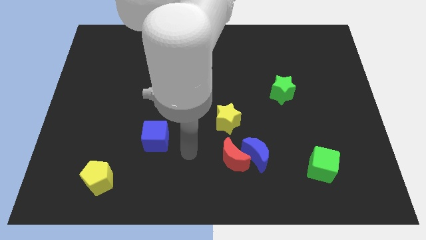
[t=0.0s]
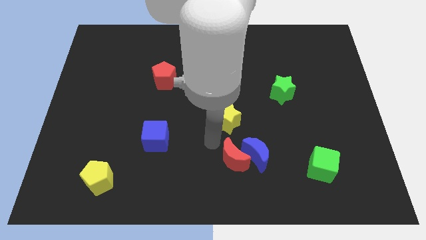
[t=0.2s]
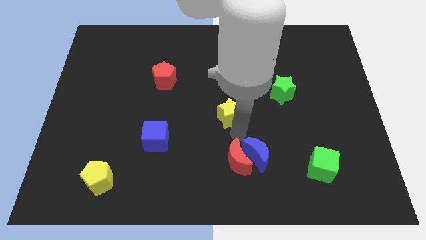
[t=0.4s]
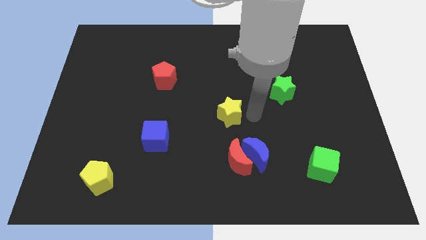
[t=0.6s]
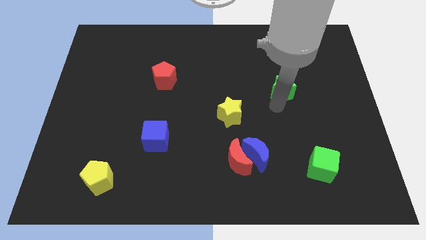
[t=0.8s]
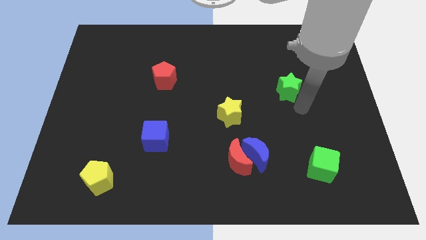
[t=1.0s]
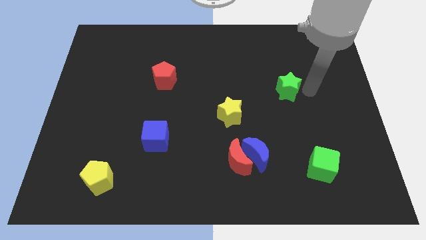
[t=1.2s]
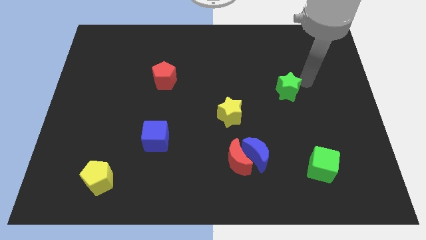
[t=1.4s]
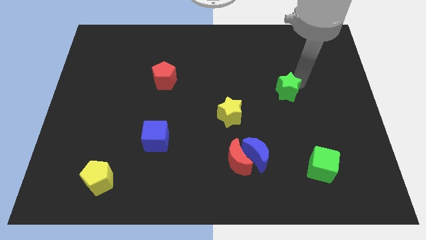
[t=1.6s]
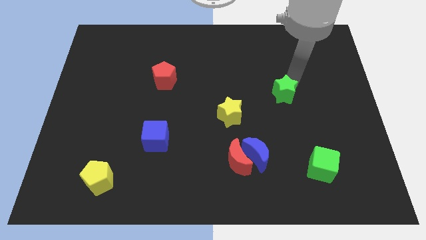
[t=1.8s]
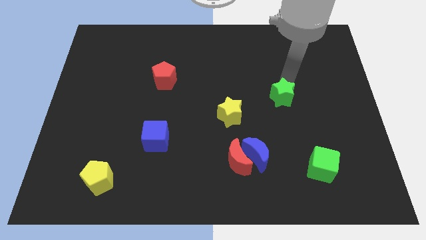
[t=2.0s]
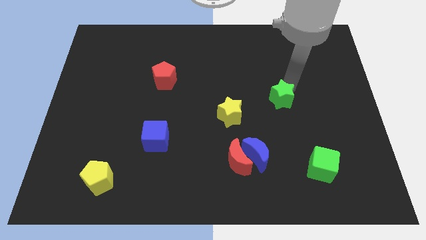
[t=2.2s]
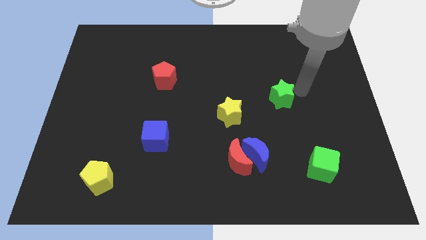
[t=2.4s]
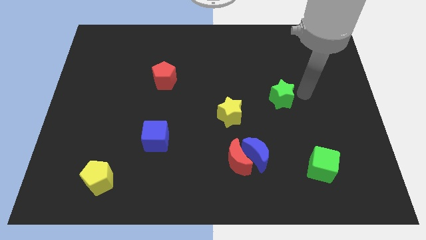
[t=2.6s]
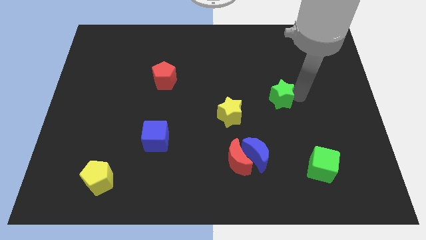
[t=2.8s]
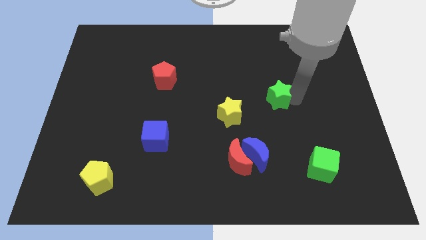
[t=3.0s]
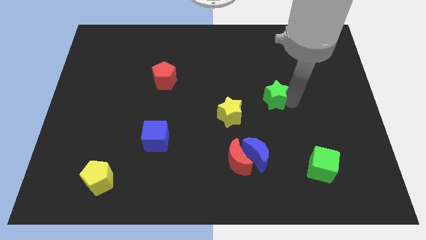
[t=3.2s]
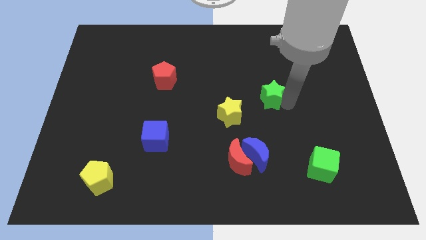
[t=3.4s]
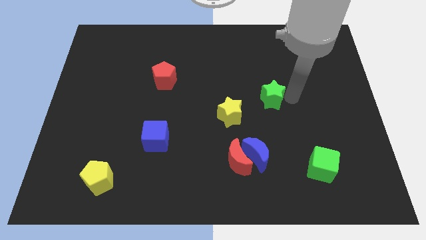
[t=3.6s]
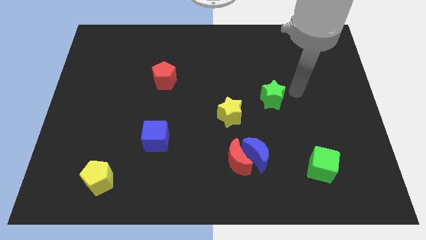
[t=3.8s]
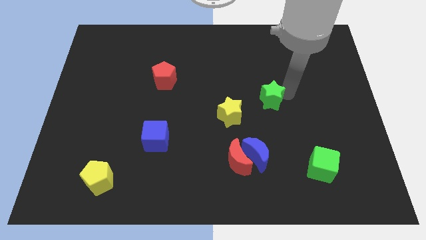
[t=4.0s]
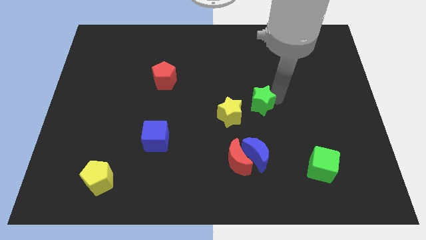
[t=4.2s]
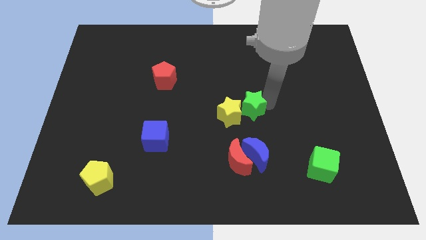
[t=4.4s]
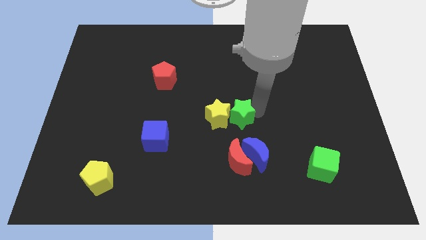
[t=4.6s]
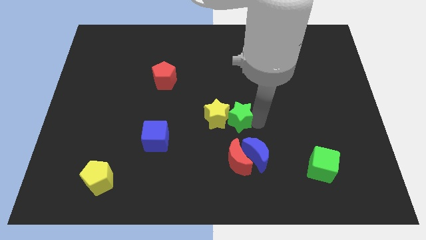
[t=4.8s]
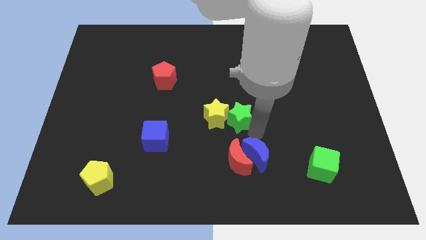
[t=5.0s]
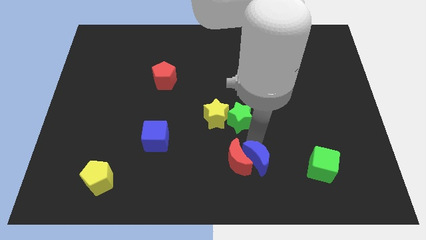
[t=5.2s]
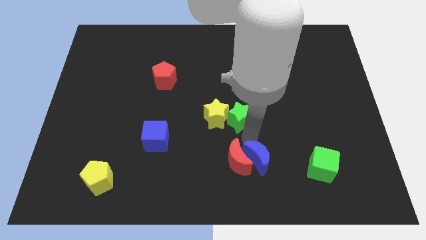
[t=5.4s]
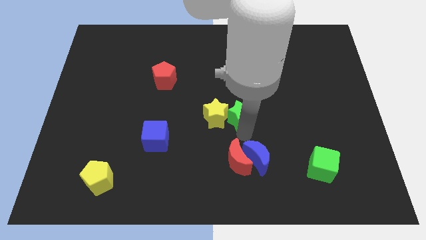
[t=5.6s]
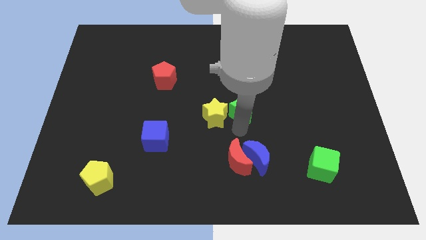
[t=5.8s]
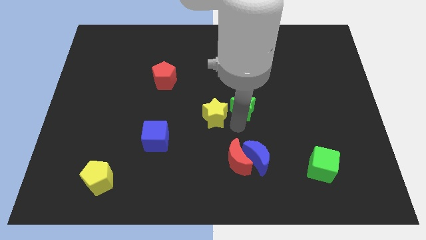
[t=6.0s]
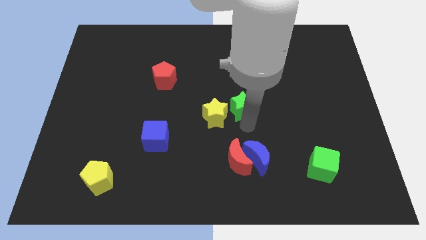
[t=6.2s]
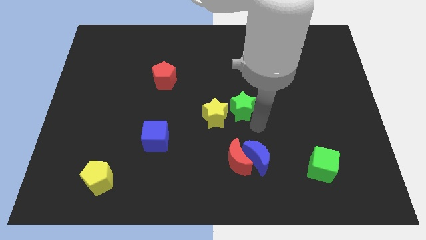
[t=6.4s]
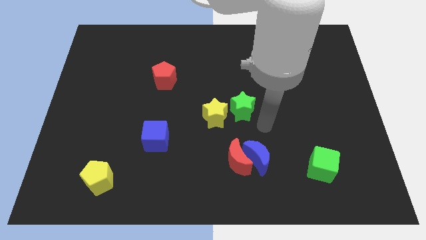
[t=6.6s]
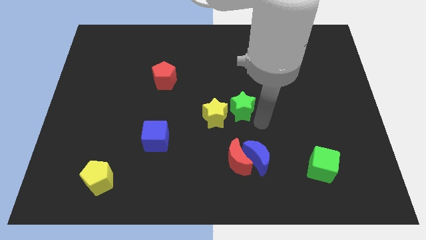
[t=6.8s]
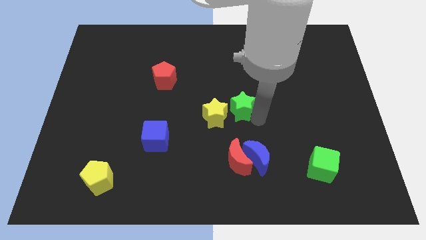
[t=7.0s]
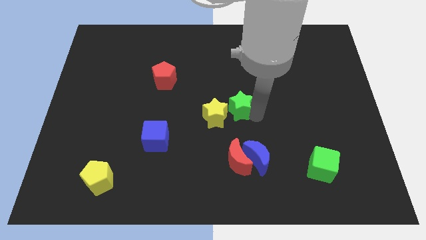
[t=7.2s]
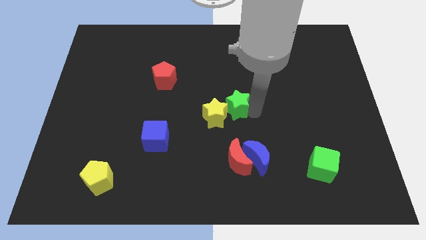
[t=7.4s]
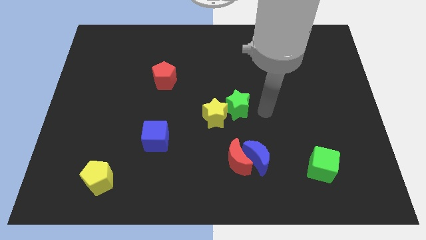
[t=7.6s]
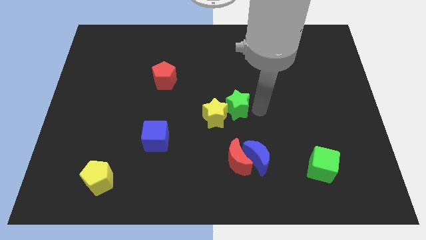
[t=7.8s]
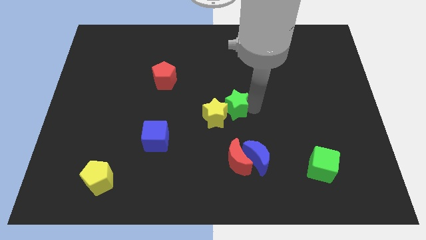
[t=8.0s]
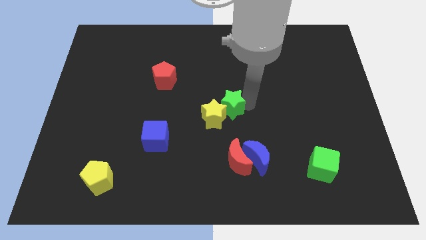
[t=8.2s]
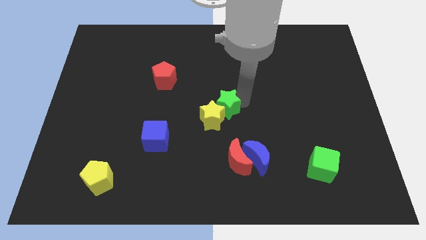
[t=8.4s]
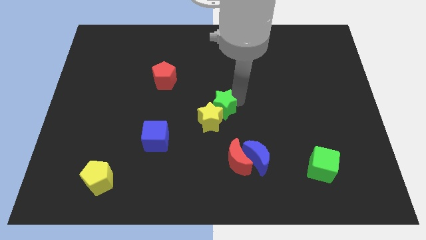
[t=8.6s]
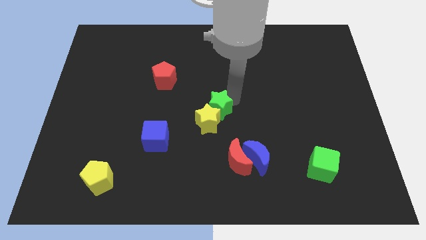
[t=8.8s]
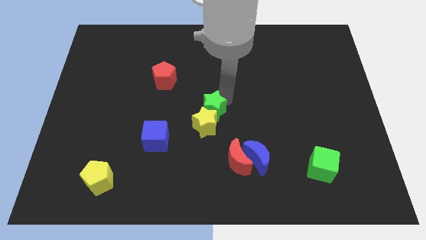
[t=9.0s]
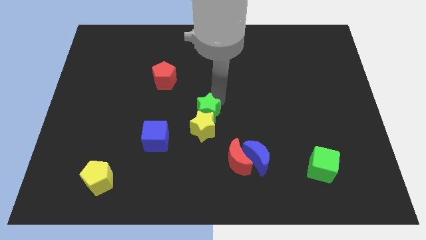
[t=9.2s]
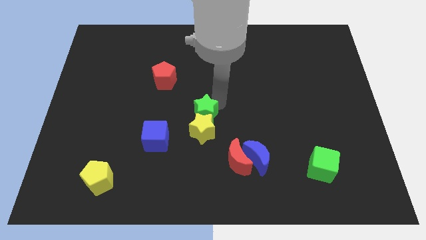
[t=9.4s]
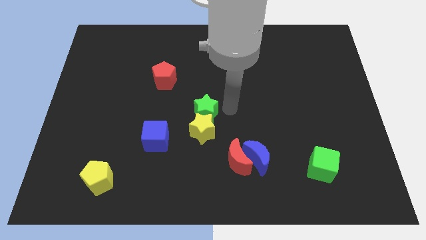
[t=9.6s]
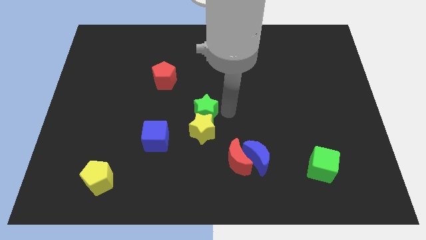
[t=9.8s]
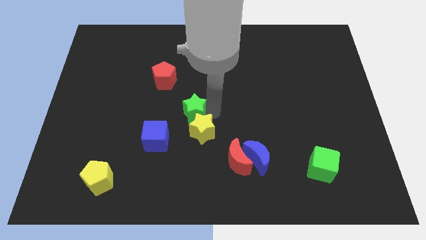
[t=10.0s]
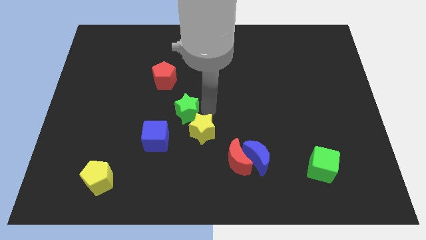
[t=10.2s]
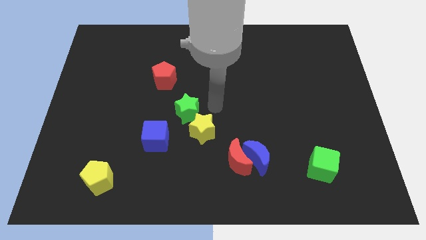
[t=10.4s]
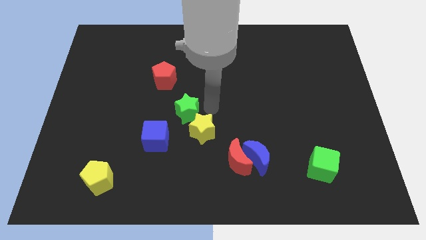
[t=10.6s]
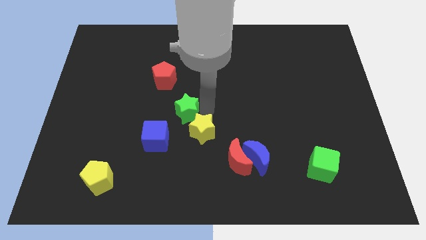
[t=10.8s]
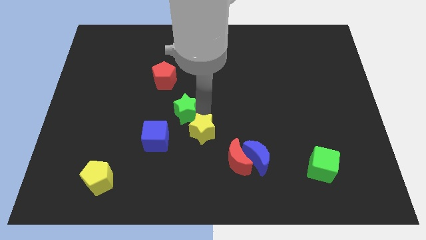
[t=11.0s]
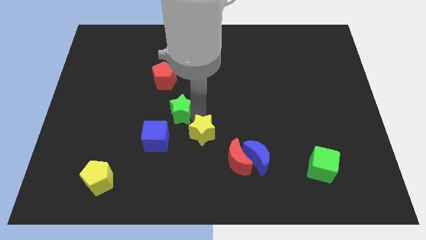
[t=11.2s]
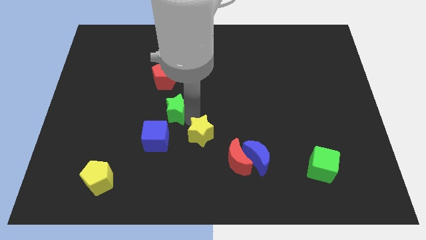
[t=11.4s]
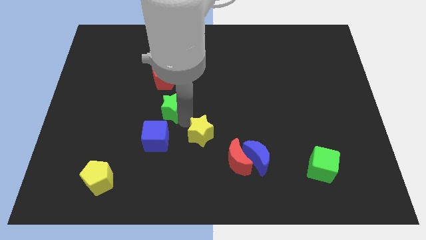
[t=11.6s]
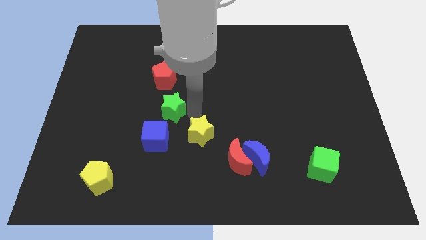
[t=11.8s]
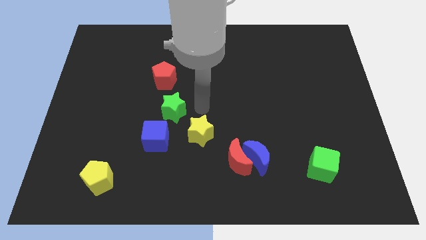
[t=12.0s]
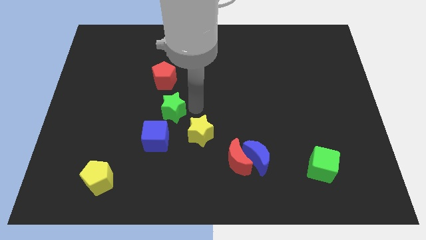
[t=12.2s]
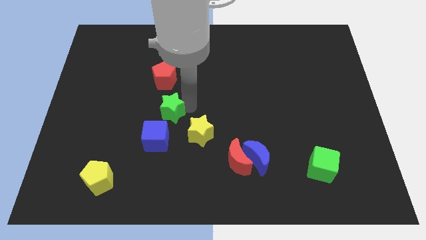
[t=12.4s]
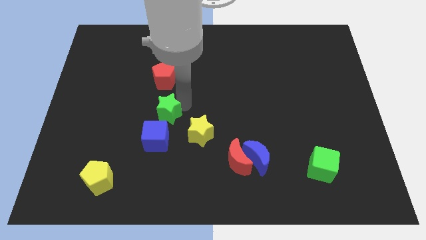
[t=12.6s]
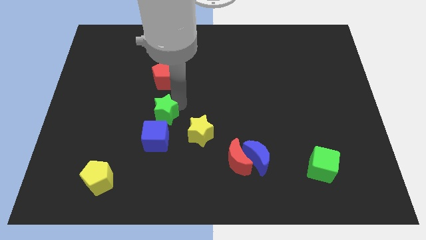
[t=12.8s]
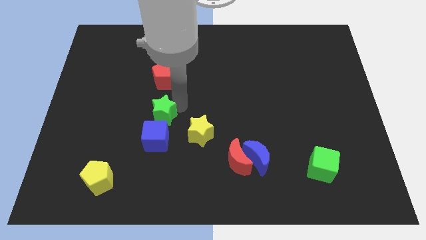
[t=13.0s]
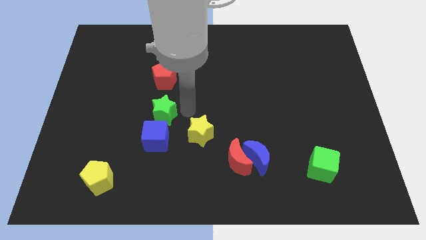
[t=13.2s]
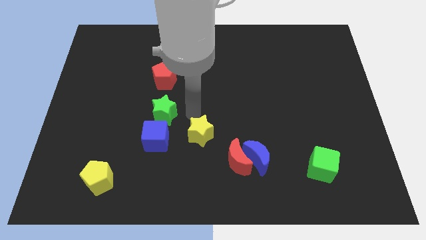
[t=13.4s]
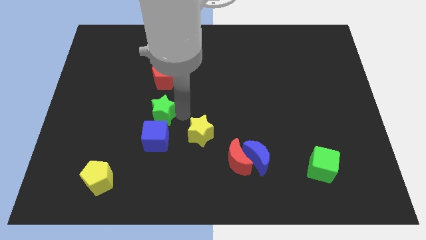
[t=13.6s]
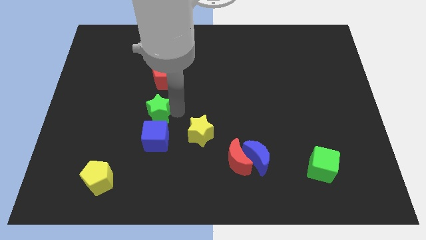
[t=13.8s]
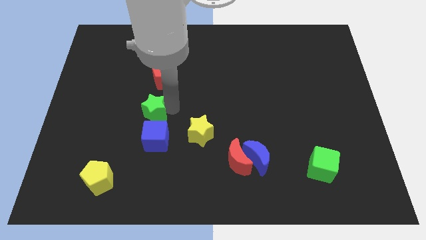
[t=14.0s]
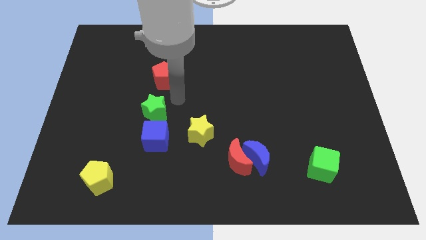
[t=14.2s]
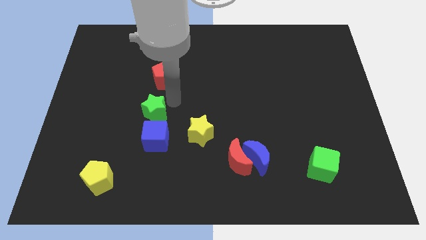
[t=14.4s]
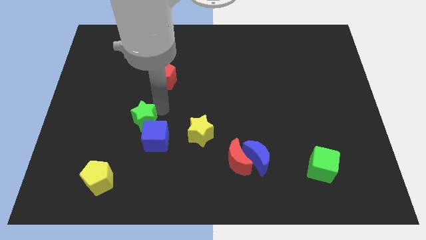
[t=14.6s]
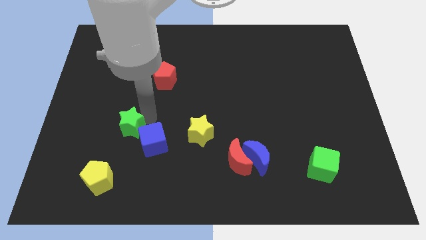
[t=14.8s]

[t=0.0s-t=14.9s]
move the green star left of the blue cube
